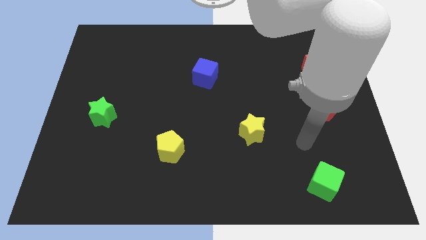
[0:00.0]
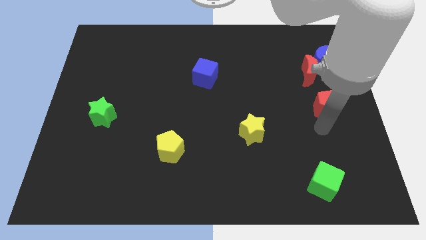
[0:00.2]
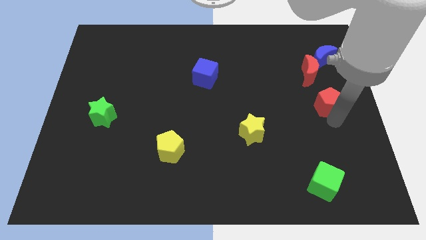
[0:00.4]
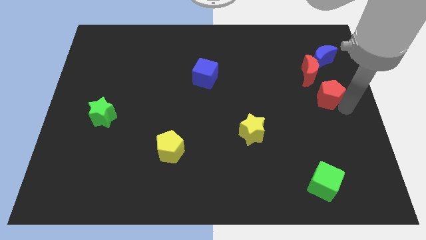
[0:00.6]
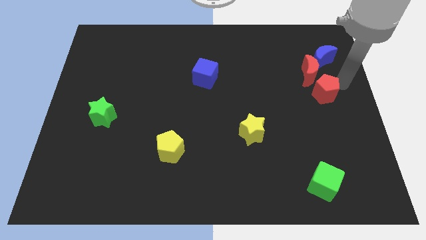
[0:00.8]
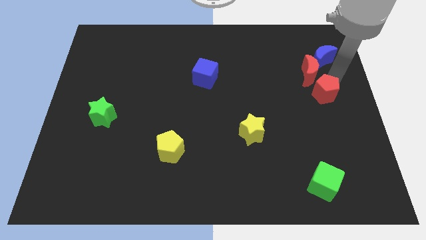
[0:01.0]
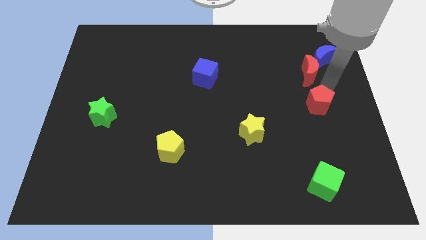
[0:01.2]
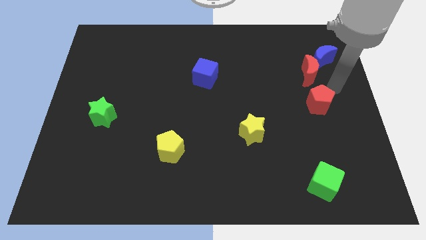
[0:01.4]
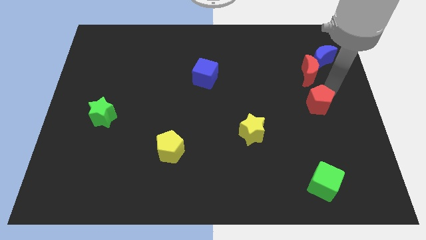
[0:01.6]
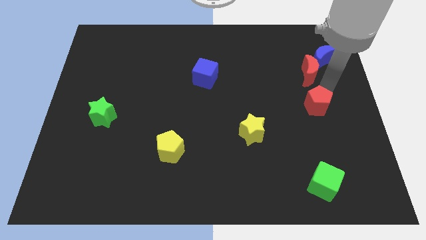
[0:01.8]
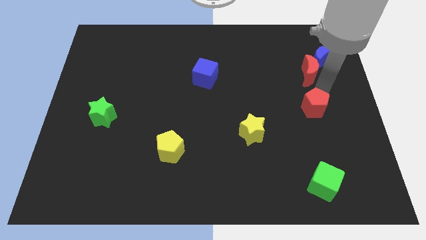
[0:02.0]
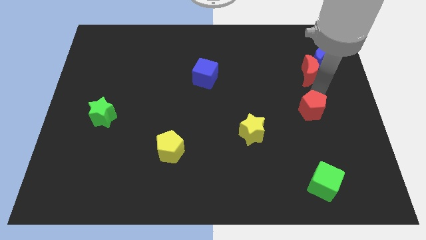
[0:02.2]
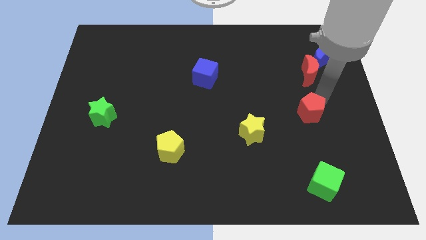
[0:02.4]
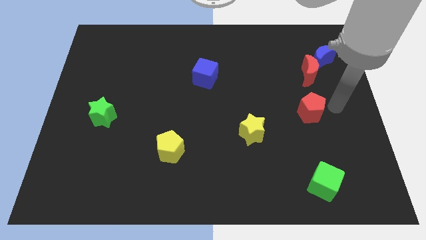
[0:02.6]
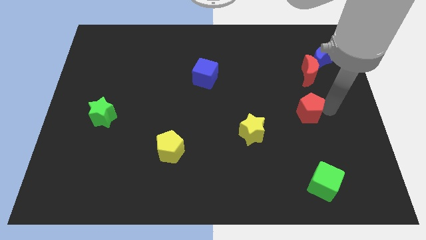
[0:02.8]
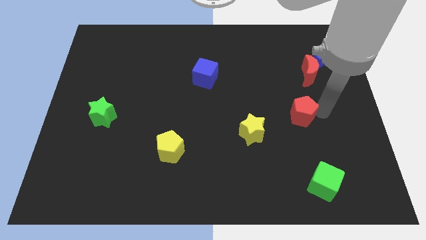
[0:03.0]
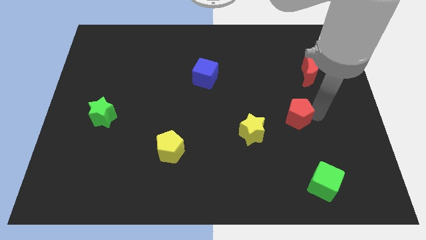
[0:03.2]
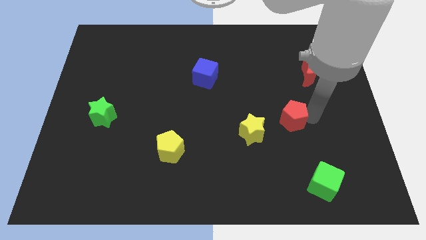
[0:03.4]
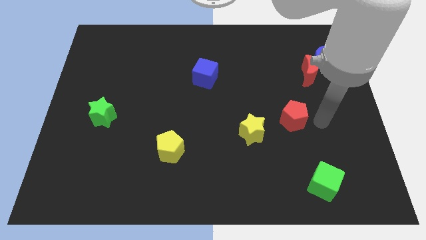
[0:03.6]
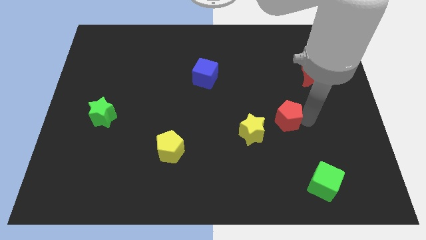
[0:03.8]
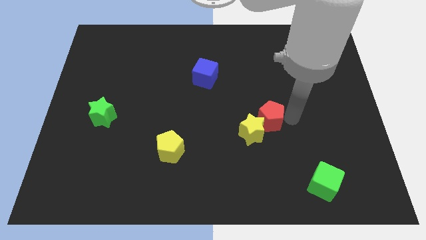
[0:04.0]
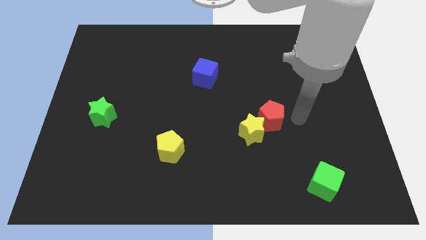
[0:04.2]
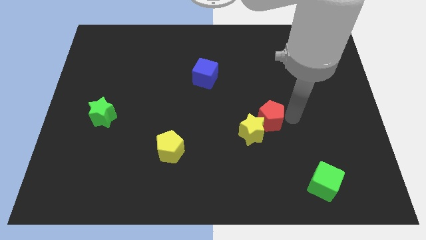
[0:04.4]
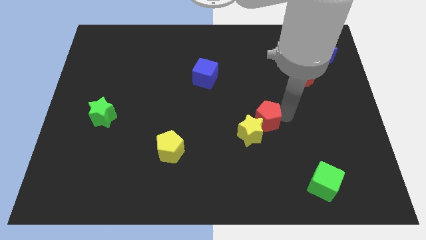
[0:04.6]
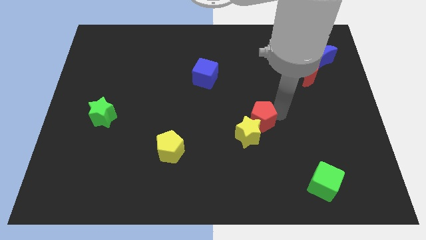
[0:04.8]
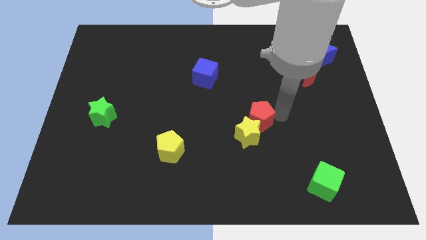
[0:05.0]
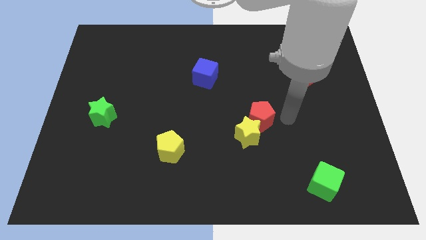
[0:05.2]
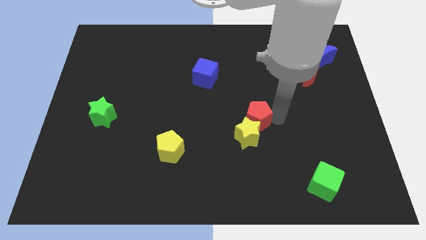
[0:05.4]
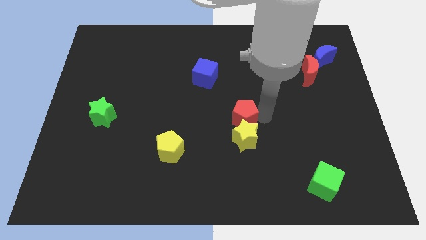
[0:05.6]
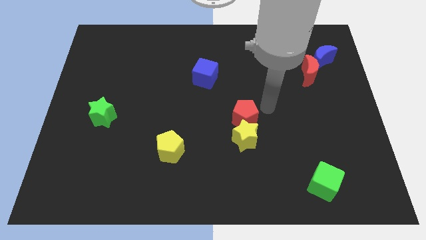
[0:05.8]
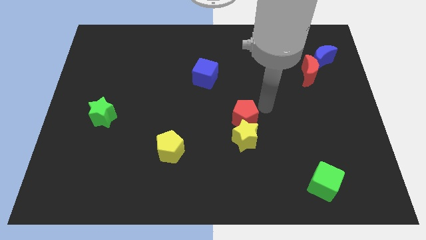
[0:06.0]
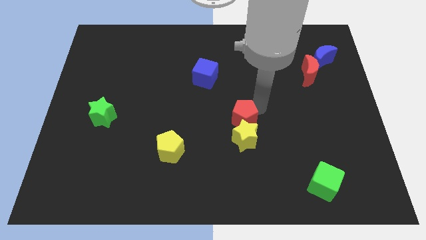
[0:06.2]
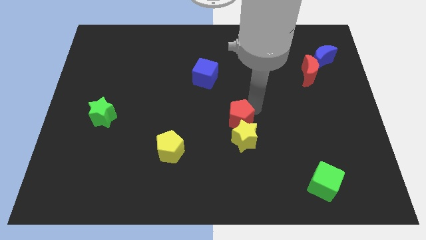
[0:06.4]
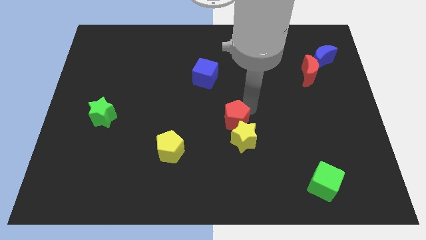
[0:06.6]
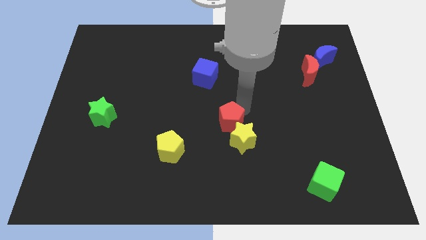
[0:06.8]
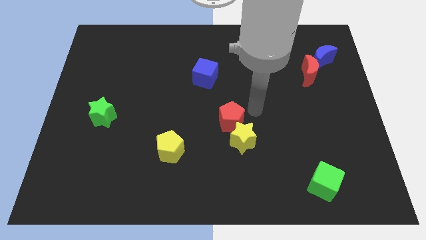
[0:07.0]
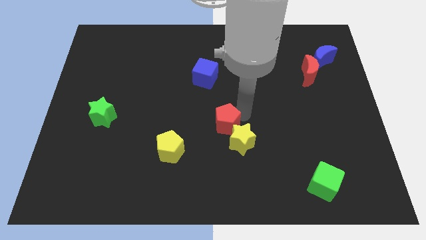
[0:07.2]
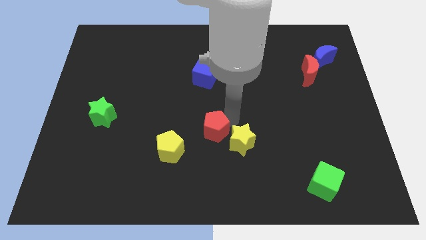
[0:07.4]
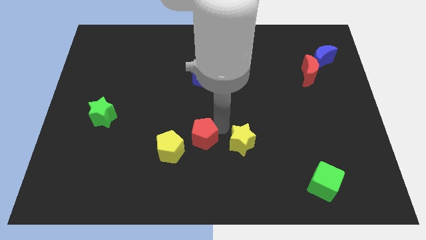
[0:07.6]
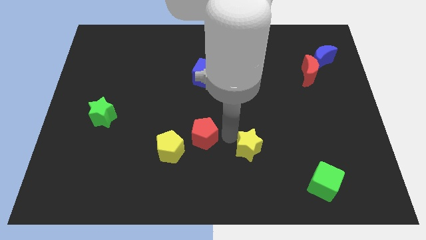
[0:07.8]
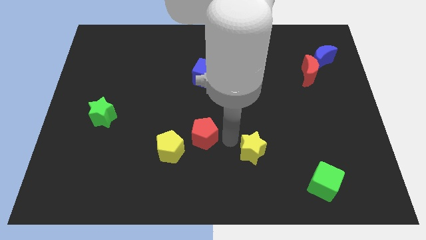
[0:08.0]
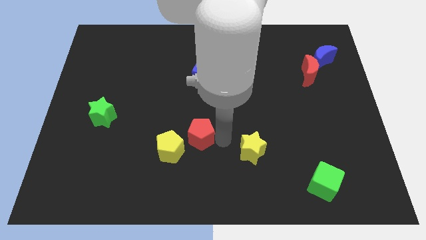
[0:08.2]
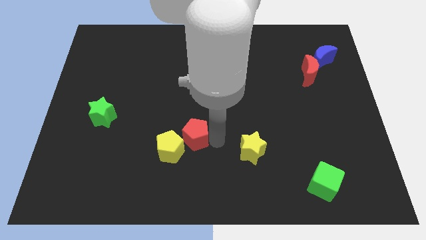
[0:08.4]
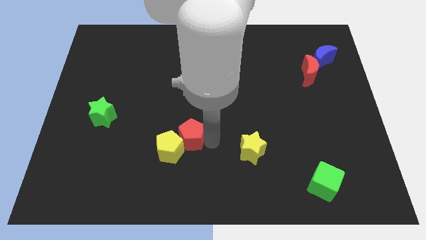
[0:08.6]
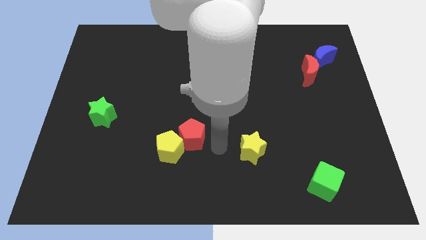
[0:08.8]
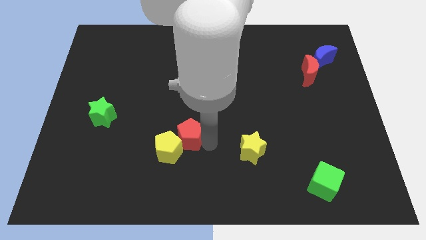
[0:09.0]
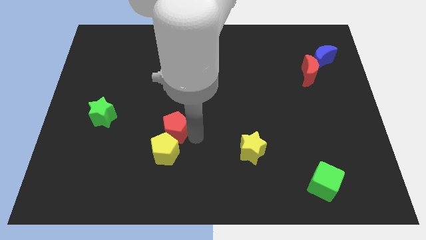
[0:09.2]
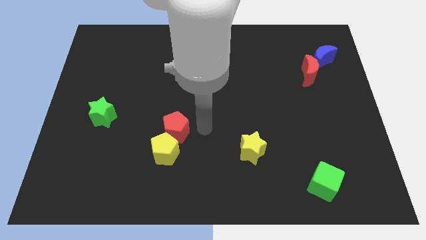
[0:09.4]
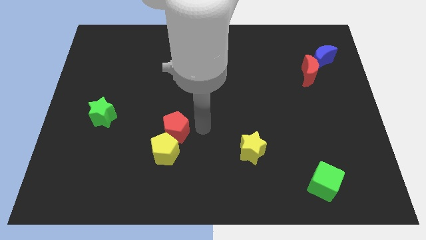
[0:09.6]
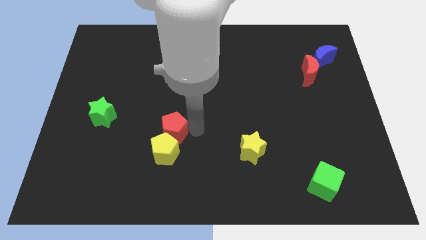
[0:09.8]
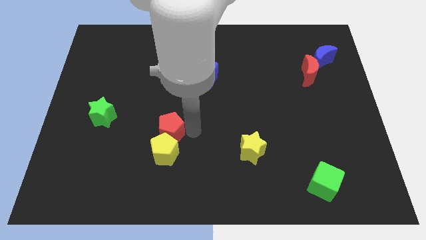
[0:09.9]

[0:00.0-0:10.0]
slide the red pentagon to the top left of the yellow pentagon

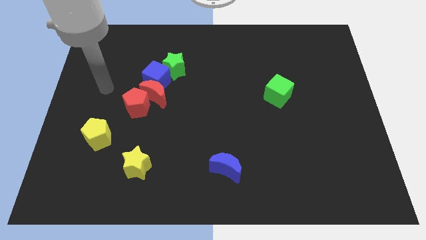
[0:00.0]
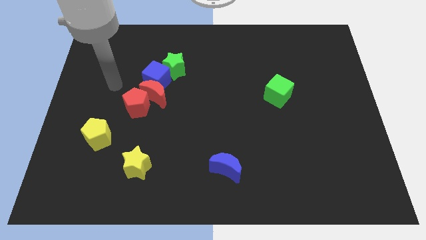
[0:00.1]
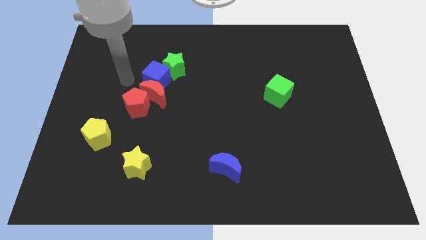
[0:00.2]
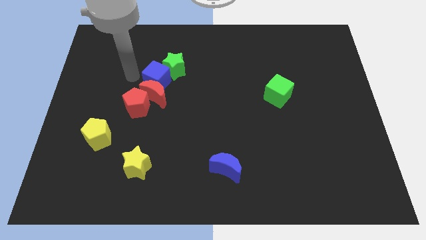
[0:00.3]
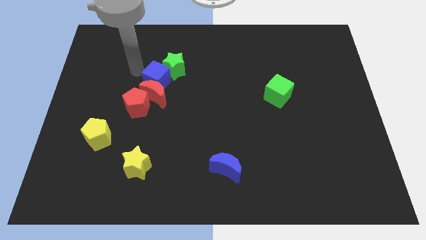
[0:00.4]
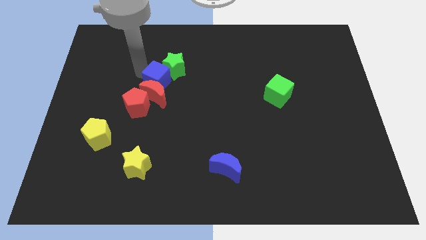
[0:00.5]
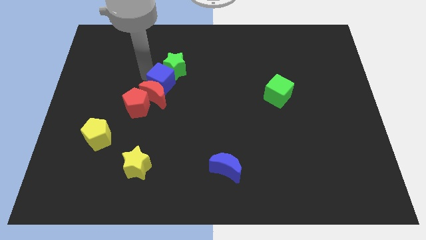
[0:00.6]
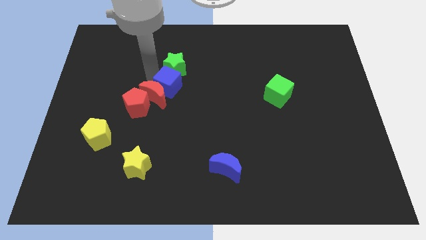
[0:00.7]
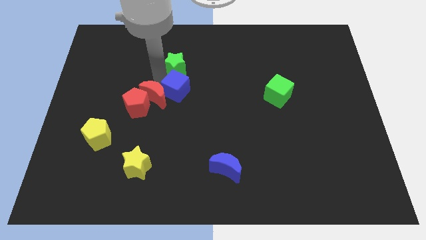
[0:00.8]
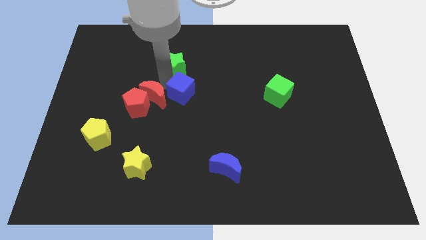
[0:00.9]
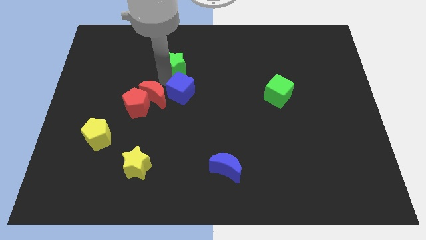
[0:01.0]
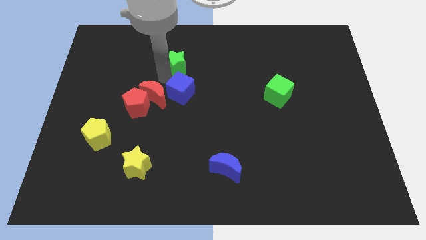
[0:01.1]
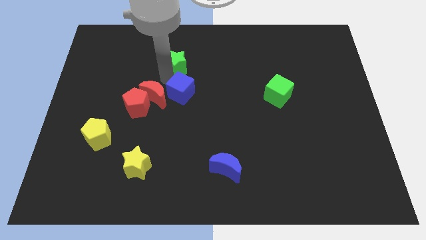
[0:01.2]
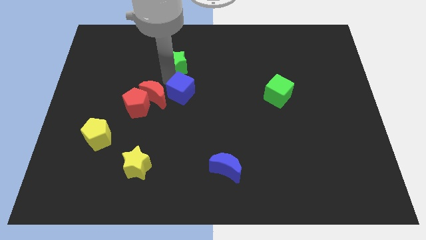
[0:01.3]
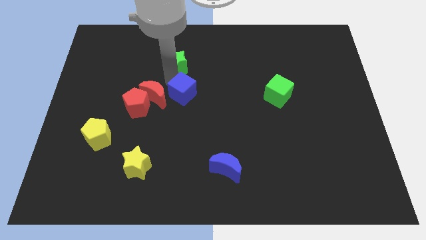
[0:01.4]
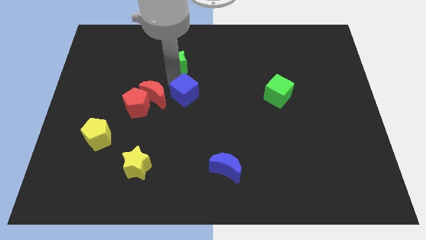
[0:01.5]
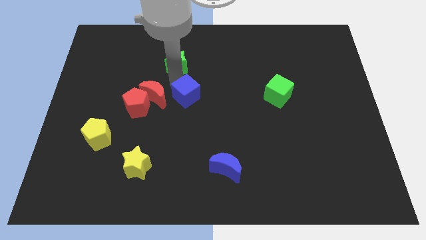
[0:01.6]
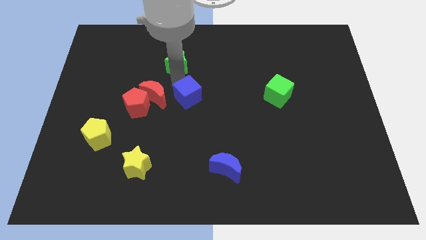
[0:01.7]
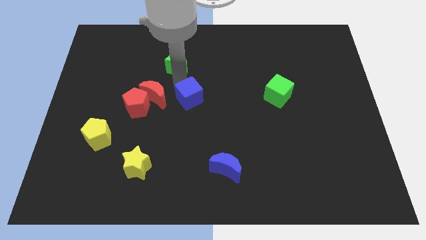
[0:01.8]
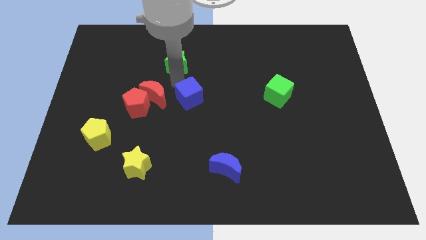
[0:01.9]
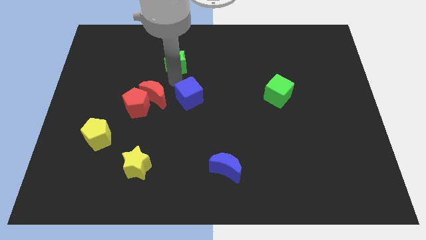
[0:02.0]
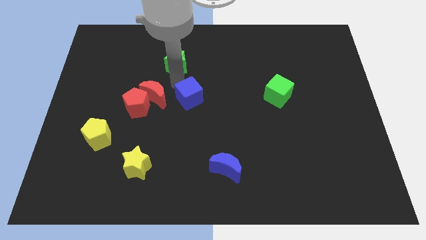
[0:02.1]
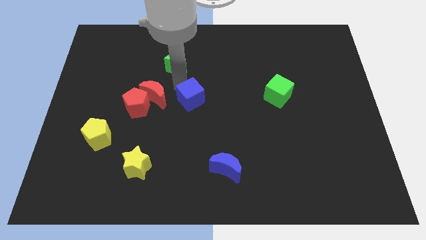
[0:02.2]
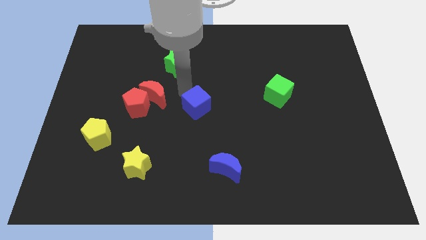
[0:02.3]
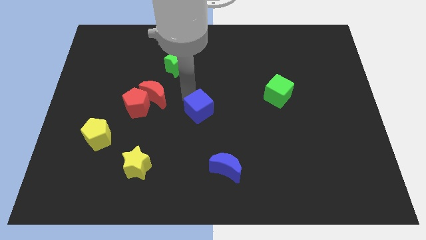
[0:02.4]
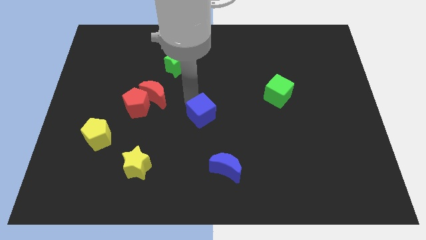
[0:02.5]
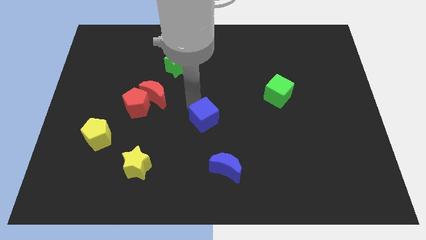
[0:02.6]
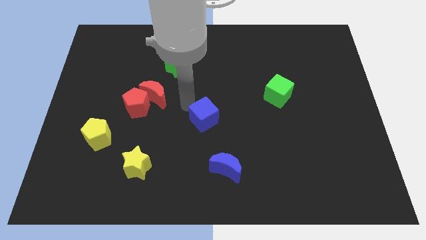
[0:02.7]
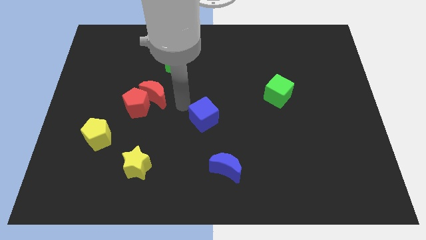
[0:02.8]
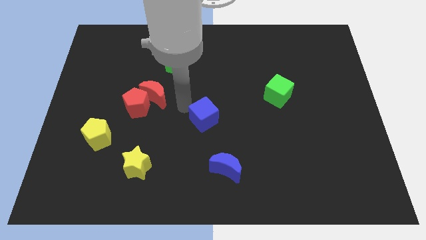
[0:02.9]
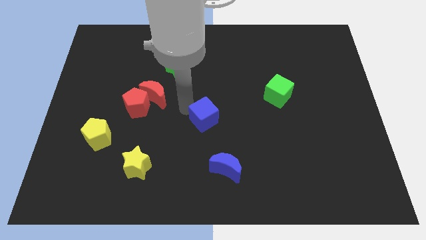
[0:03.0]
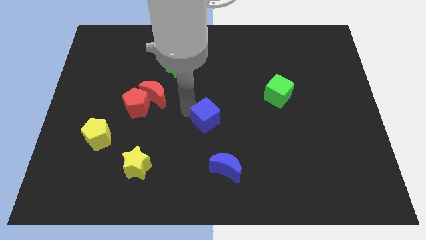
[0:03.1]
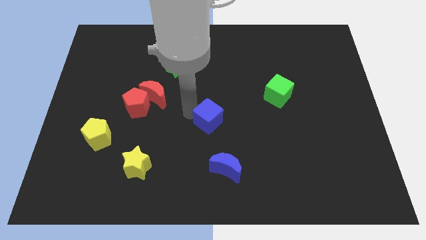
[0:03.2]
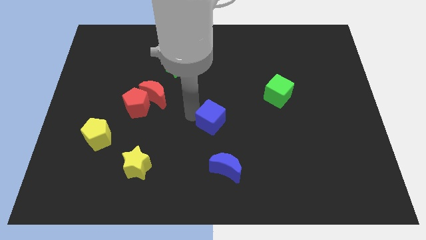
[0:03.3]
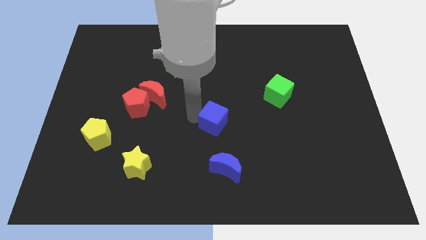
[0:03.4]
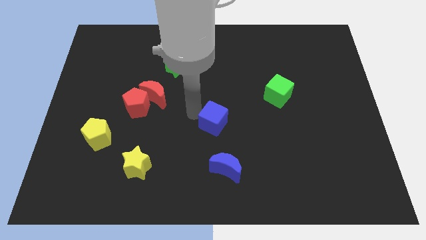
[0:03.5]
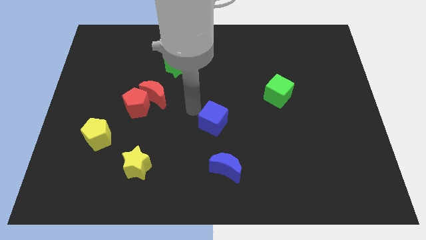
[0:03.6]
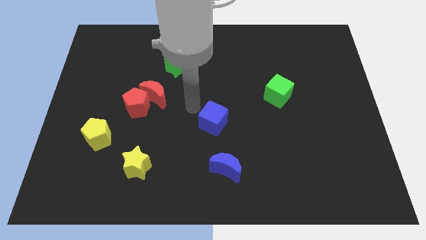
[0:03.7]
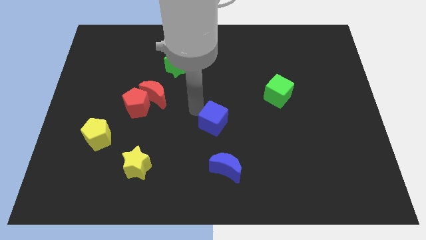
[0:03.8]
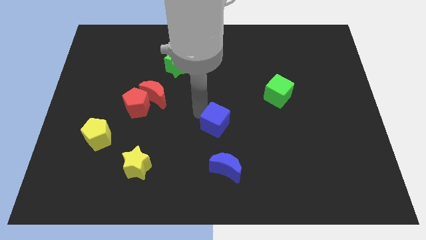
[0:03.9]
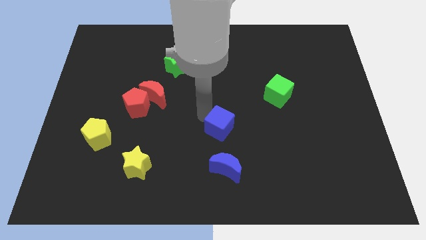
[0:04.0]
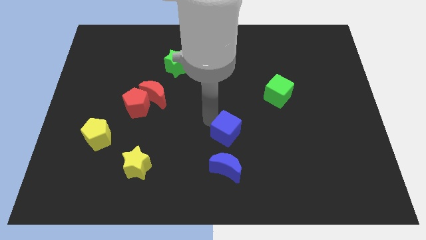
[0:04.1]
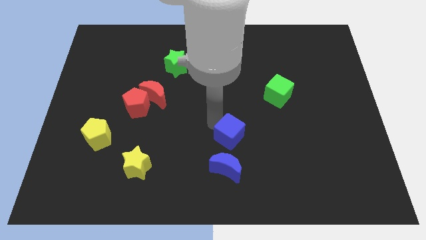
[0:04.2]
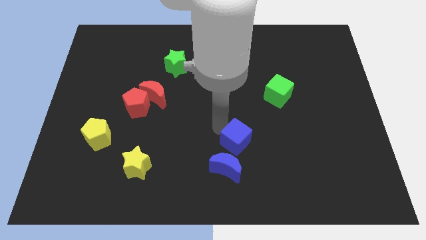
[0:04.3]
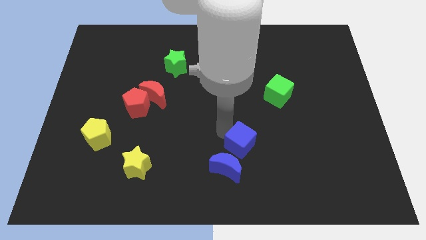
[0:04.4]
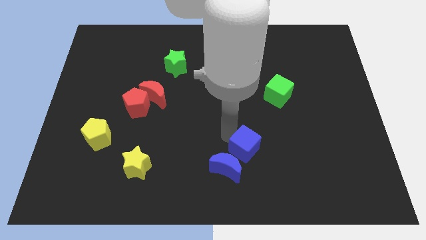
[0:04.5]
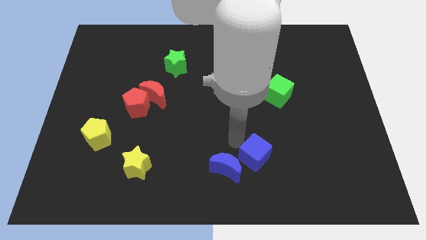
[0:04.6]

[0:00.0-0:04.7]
slide the blue cube just right of the blue moon
